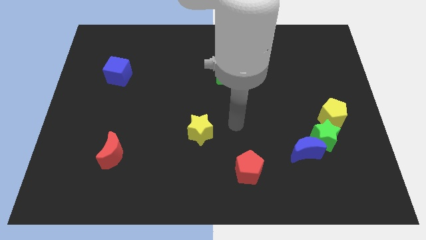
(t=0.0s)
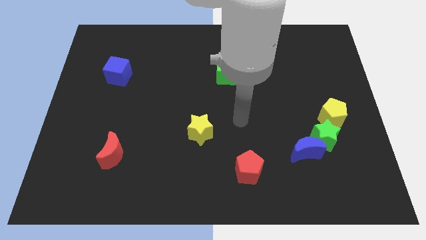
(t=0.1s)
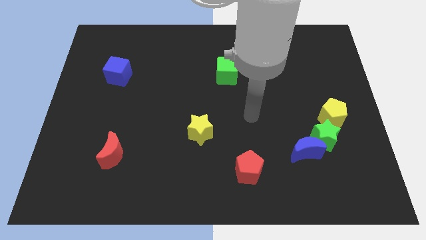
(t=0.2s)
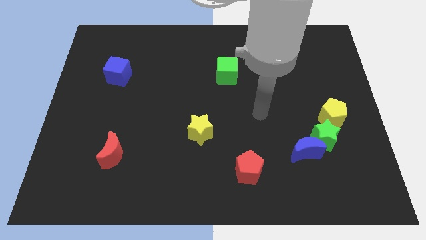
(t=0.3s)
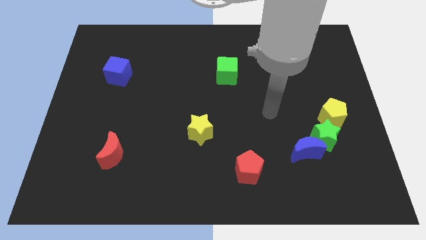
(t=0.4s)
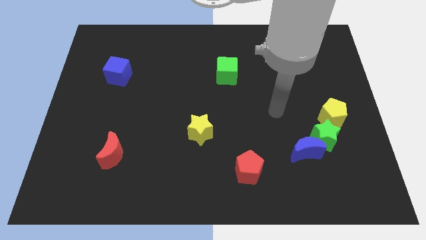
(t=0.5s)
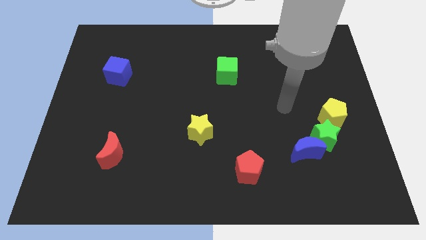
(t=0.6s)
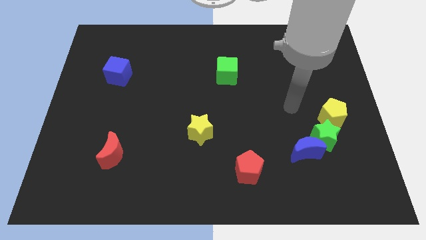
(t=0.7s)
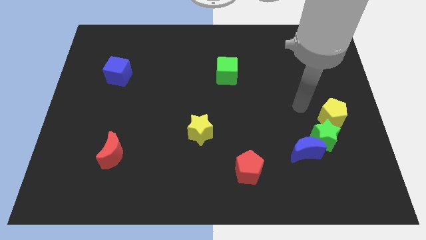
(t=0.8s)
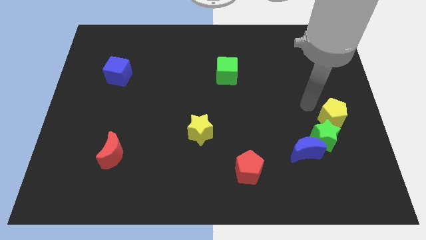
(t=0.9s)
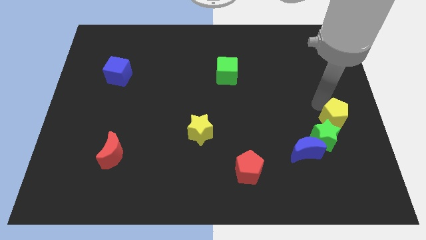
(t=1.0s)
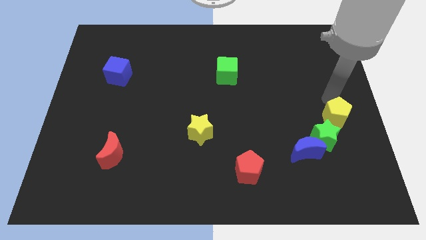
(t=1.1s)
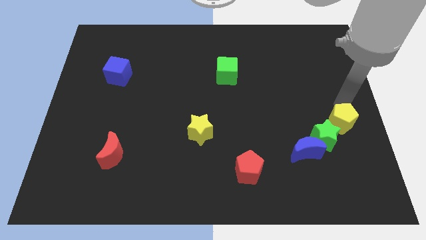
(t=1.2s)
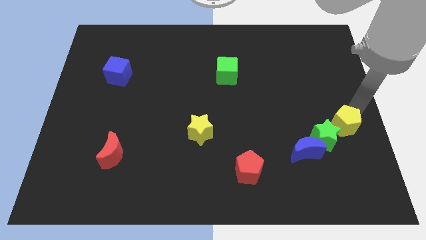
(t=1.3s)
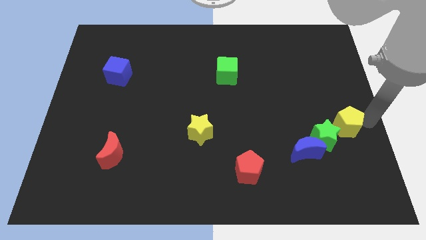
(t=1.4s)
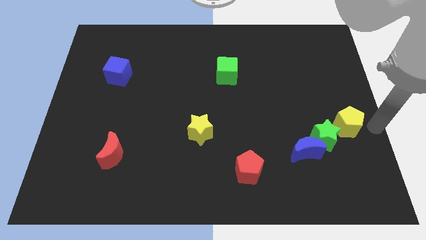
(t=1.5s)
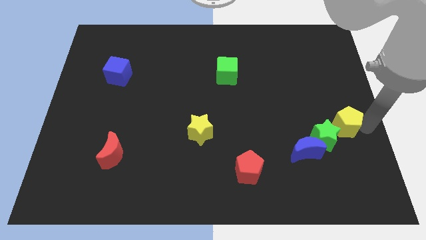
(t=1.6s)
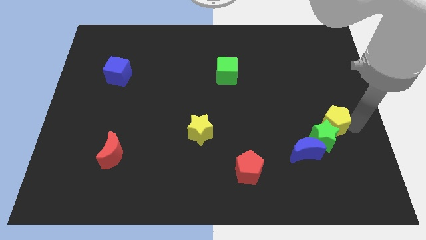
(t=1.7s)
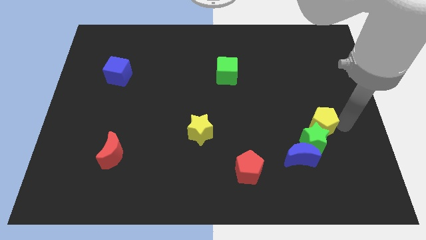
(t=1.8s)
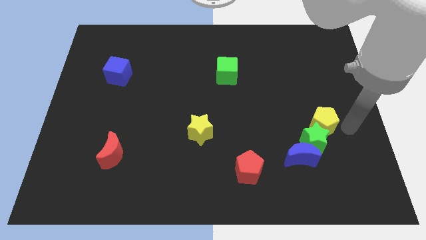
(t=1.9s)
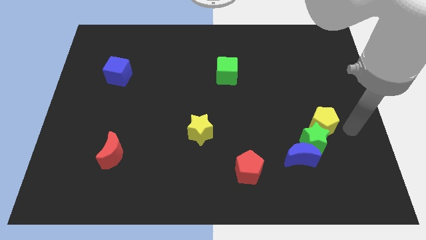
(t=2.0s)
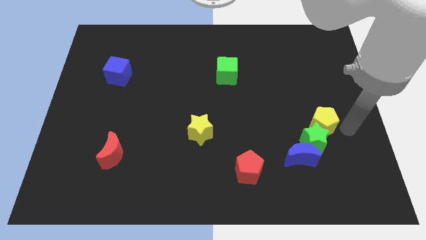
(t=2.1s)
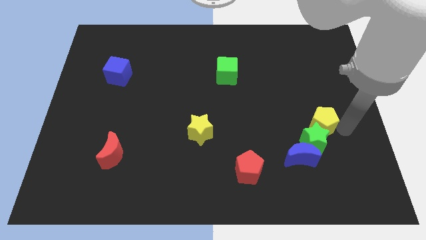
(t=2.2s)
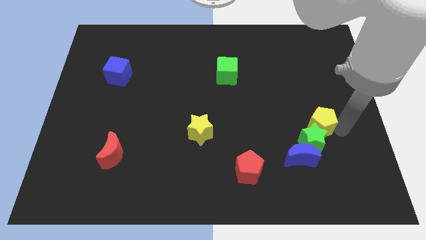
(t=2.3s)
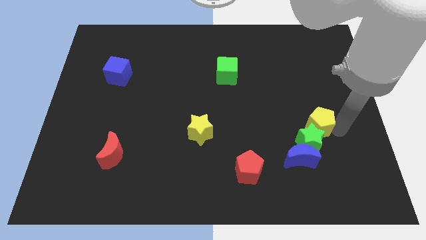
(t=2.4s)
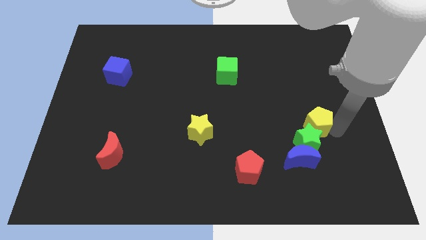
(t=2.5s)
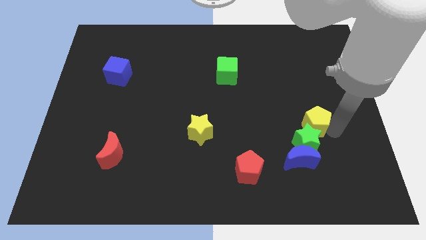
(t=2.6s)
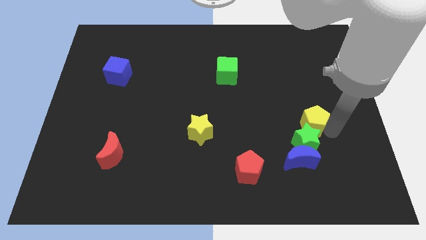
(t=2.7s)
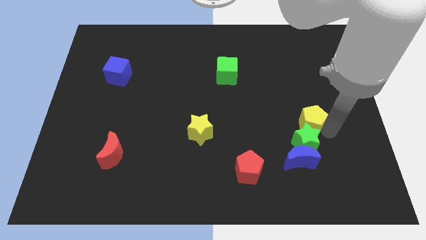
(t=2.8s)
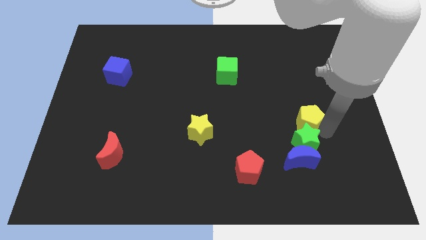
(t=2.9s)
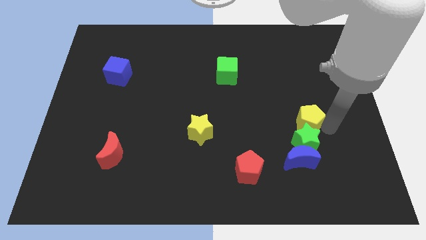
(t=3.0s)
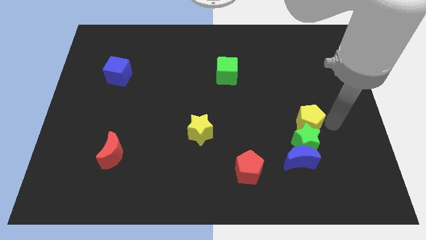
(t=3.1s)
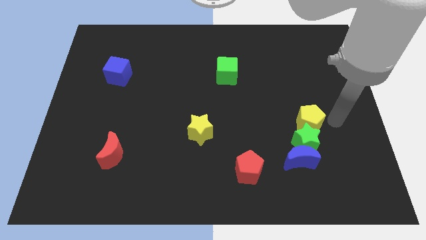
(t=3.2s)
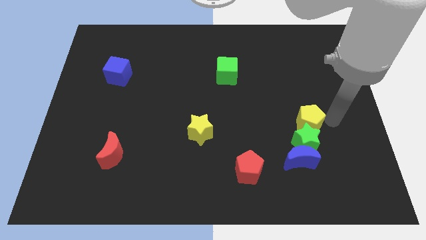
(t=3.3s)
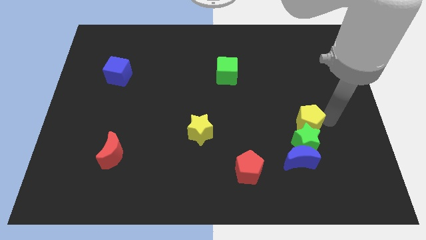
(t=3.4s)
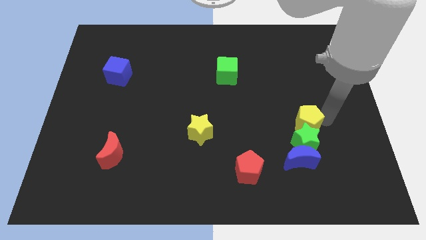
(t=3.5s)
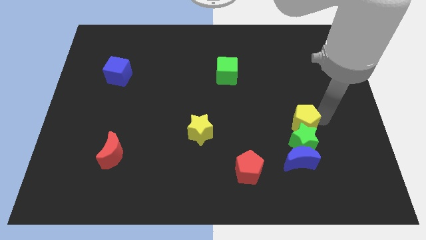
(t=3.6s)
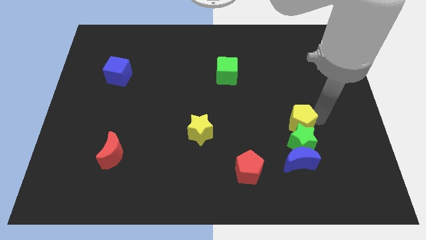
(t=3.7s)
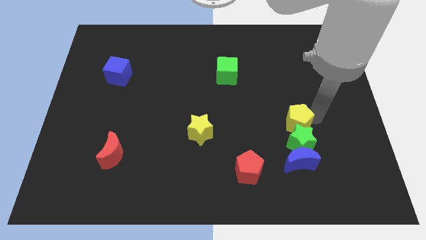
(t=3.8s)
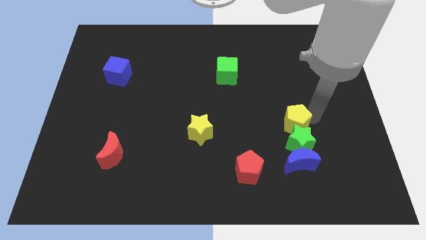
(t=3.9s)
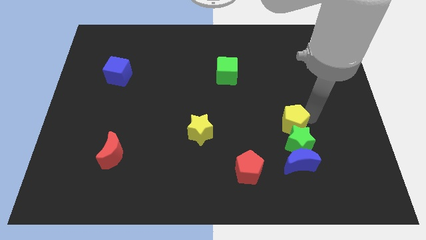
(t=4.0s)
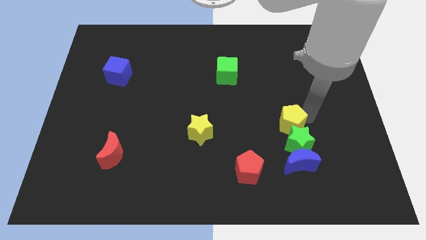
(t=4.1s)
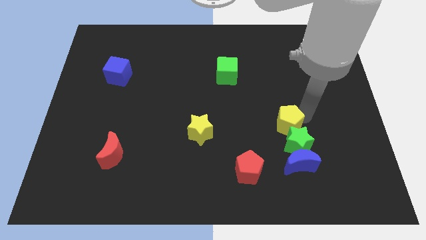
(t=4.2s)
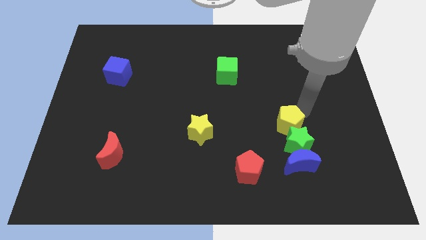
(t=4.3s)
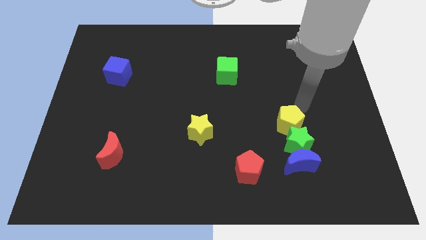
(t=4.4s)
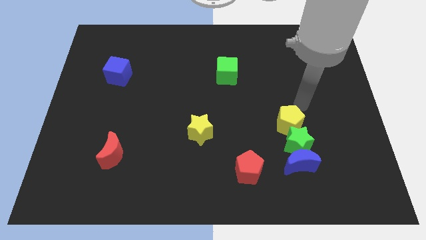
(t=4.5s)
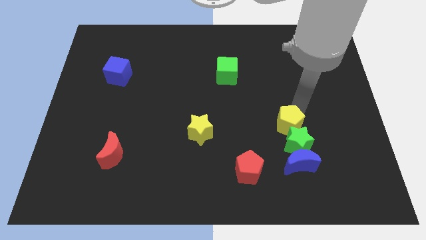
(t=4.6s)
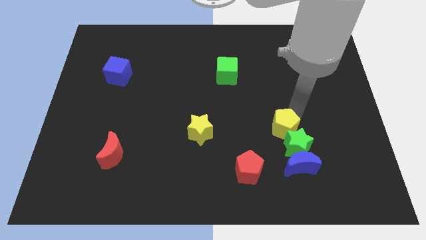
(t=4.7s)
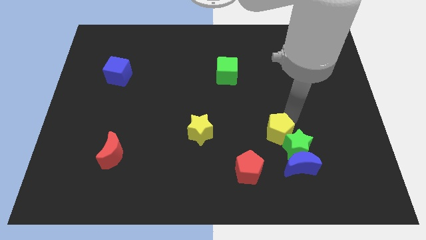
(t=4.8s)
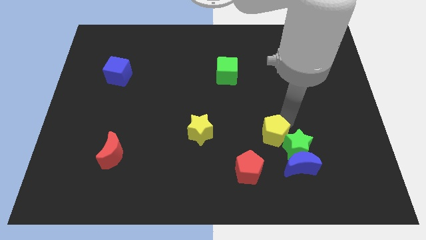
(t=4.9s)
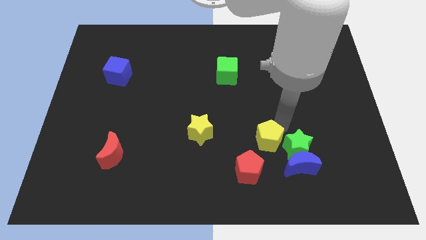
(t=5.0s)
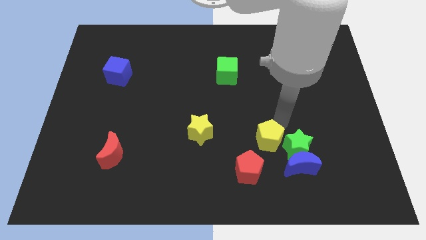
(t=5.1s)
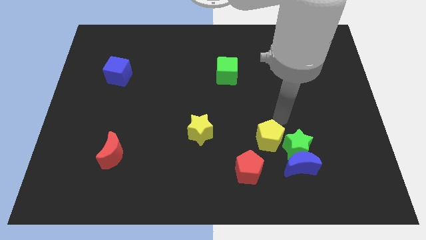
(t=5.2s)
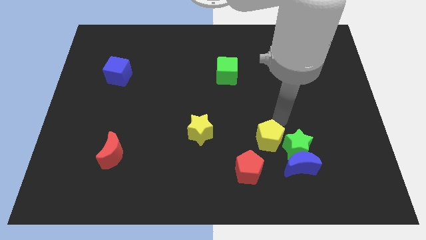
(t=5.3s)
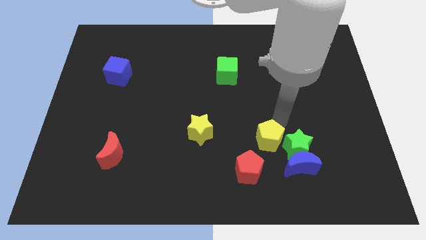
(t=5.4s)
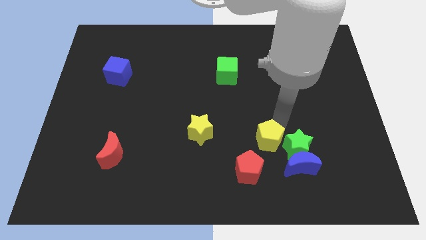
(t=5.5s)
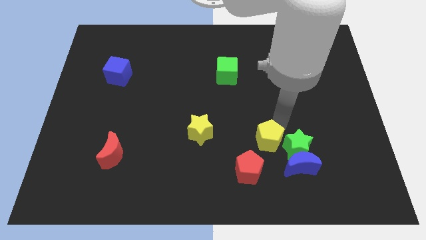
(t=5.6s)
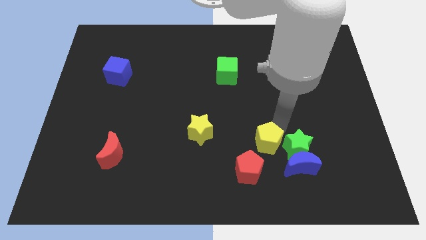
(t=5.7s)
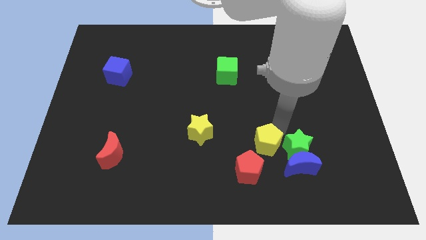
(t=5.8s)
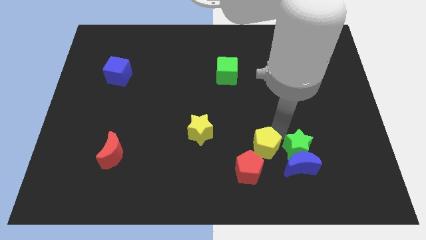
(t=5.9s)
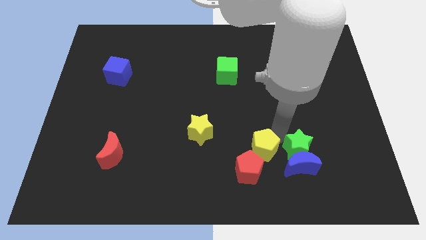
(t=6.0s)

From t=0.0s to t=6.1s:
put the yellow pentagon close to the red pentagon

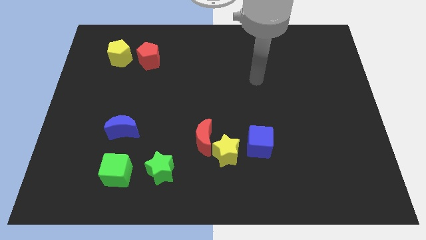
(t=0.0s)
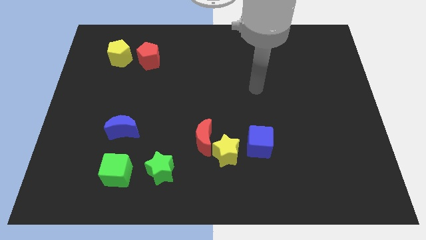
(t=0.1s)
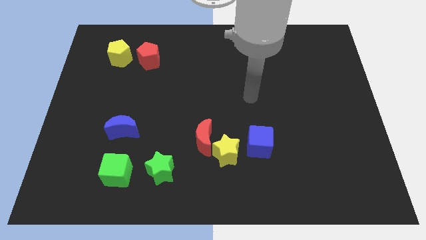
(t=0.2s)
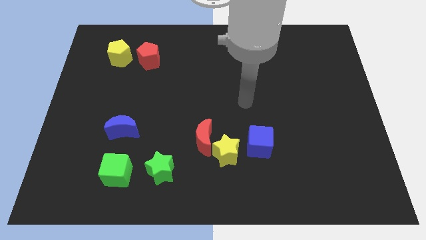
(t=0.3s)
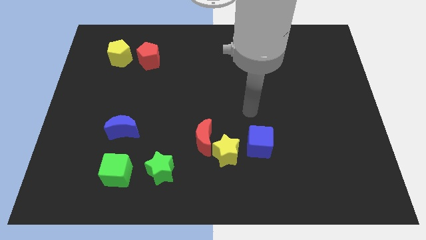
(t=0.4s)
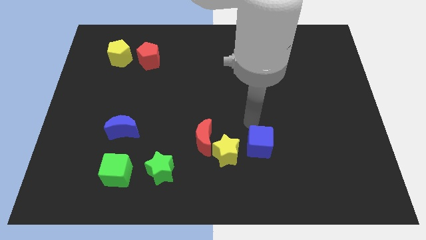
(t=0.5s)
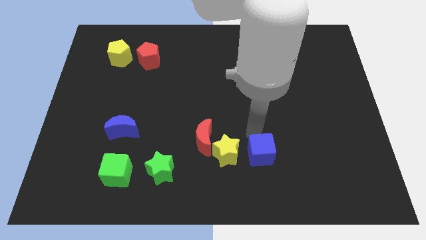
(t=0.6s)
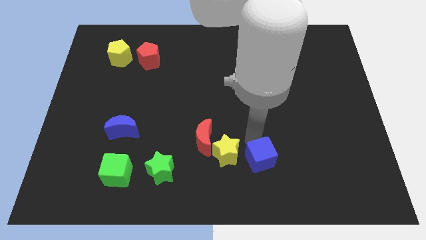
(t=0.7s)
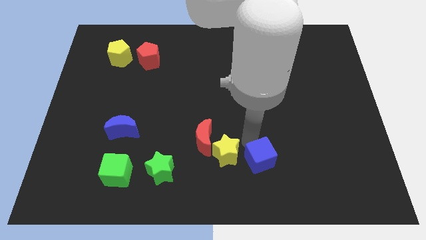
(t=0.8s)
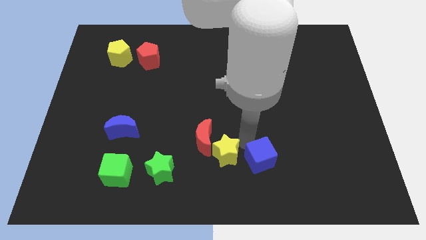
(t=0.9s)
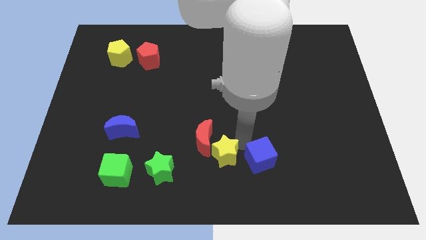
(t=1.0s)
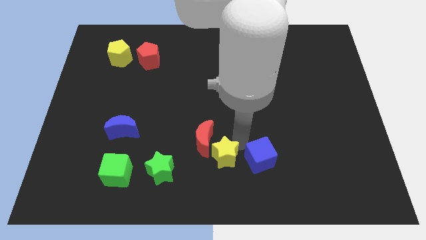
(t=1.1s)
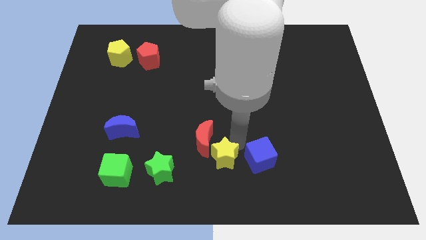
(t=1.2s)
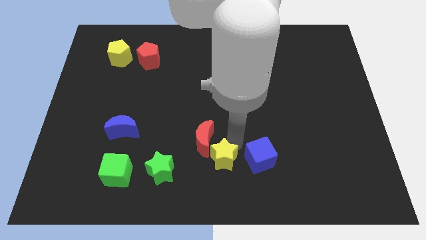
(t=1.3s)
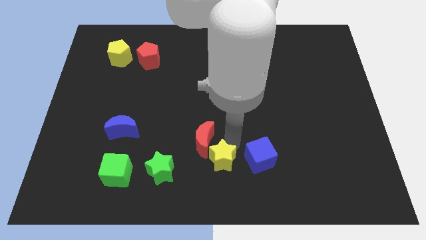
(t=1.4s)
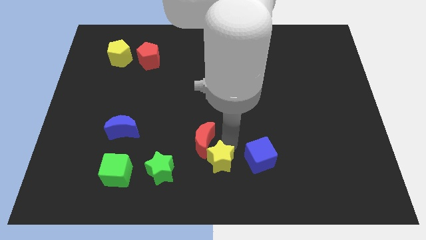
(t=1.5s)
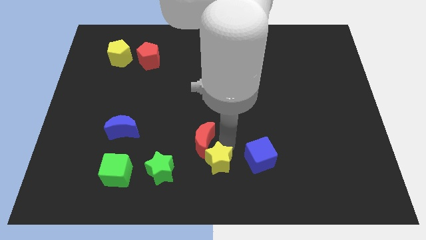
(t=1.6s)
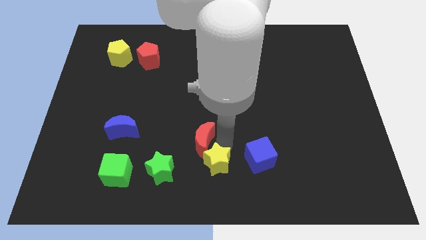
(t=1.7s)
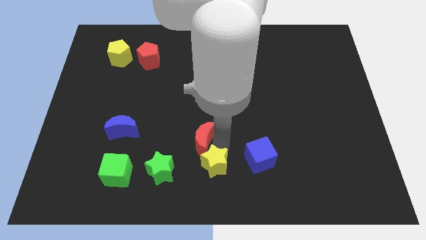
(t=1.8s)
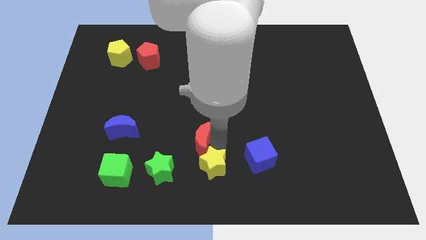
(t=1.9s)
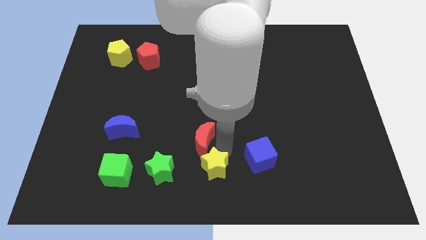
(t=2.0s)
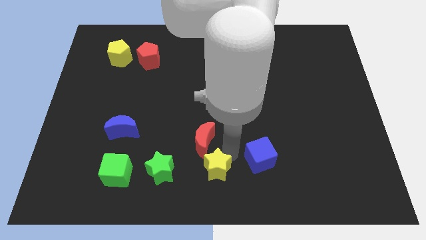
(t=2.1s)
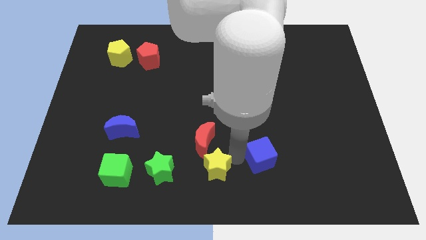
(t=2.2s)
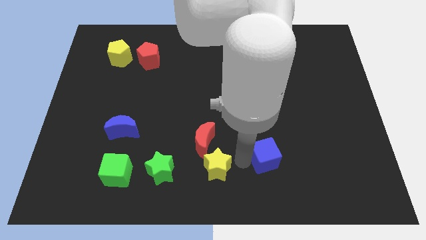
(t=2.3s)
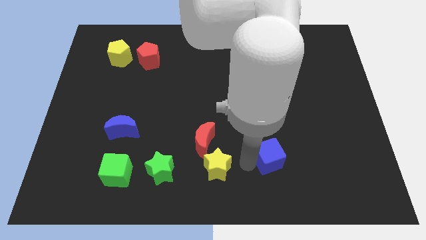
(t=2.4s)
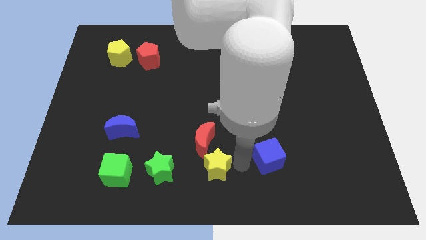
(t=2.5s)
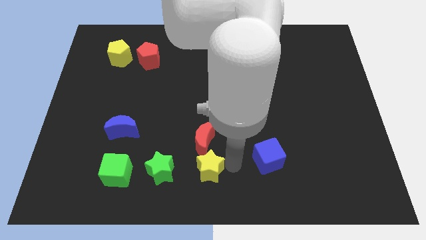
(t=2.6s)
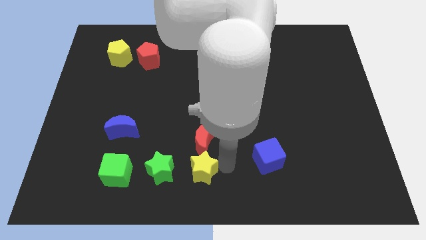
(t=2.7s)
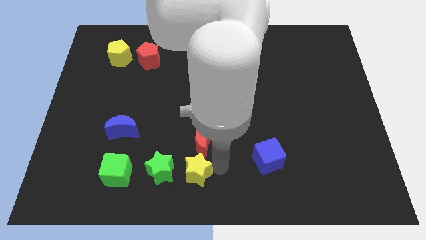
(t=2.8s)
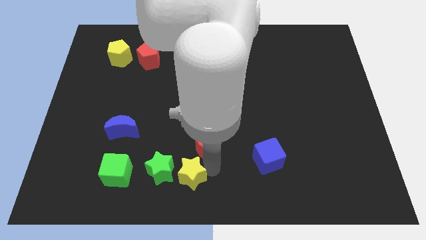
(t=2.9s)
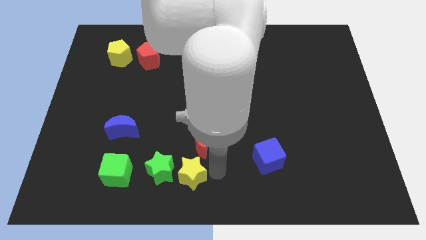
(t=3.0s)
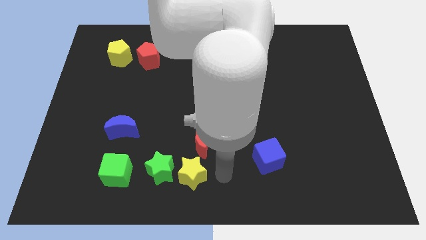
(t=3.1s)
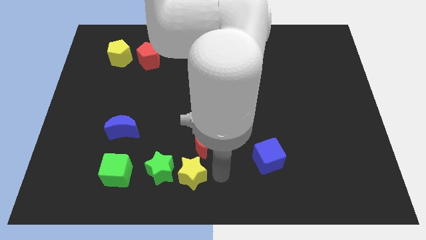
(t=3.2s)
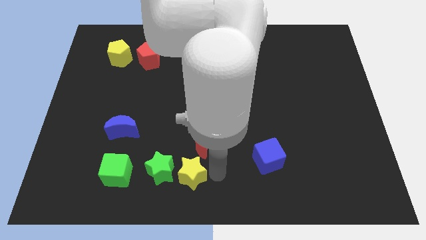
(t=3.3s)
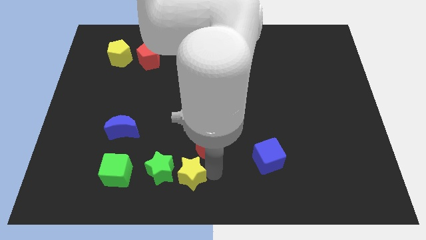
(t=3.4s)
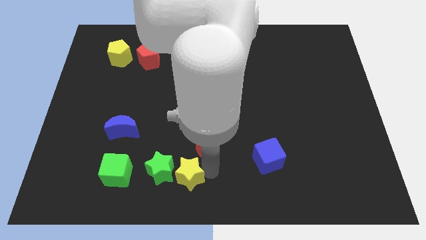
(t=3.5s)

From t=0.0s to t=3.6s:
slide the yellow star close to the green star
